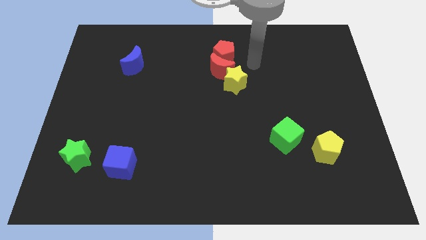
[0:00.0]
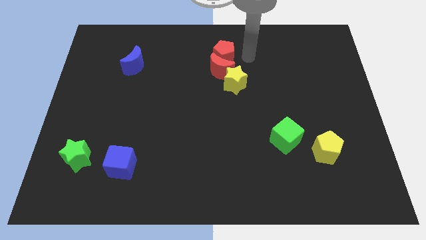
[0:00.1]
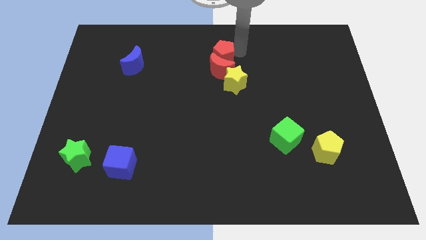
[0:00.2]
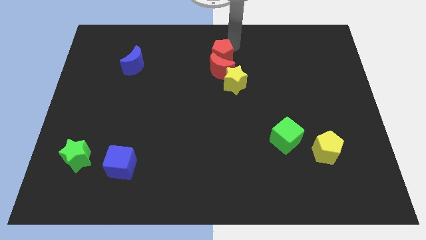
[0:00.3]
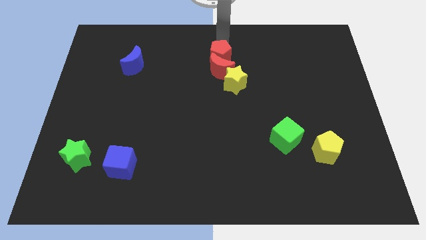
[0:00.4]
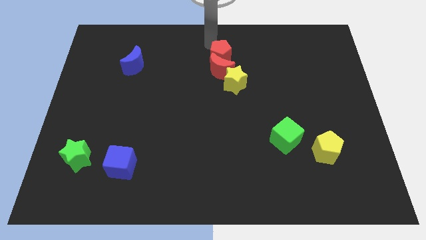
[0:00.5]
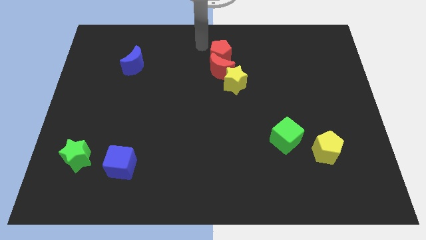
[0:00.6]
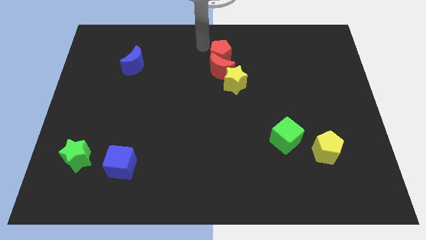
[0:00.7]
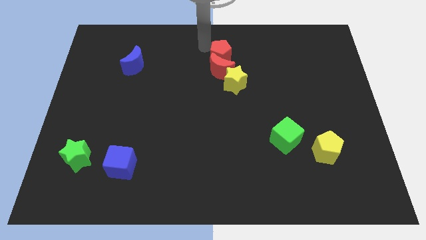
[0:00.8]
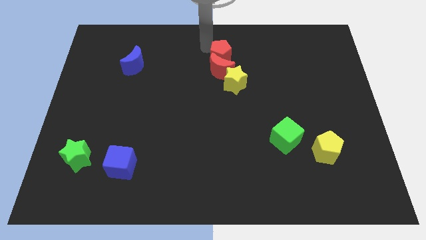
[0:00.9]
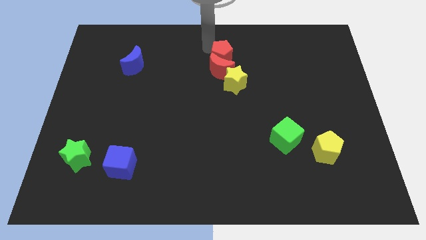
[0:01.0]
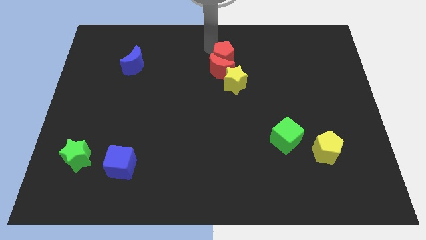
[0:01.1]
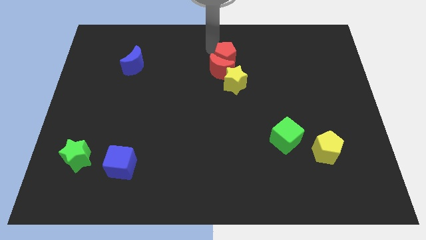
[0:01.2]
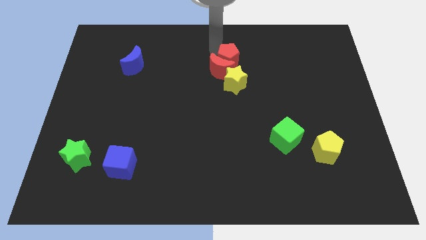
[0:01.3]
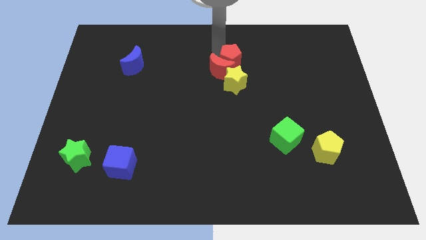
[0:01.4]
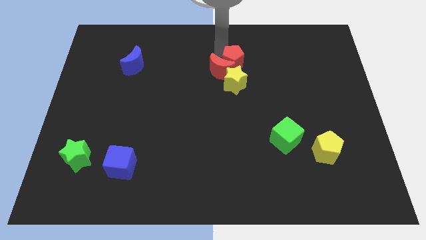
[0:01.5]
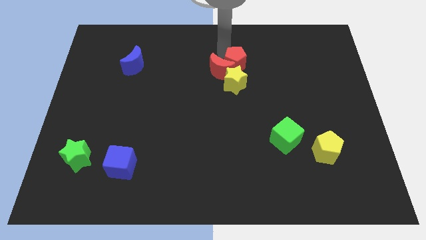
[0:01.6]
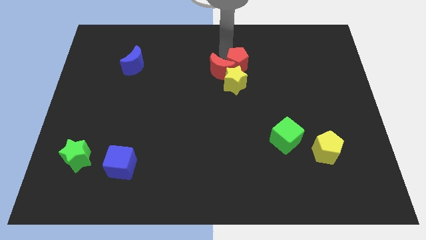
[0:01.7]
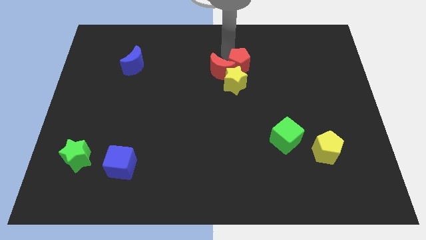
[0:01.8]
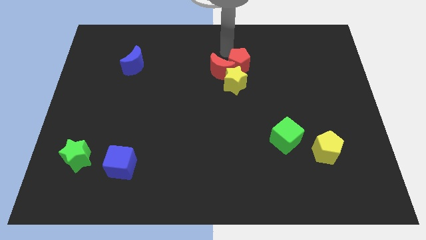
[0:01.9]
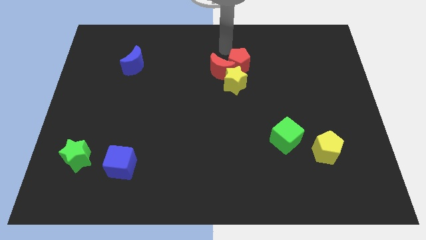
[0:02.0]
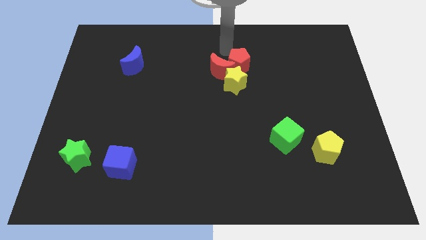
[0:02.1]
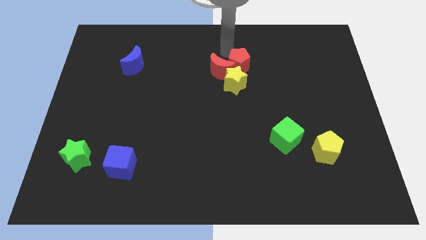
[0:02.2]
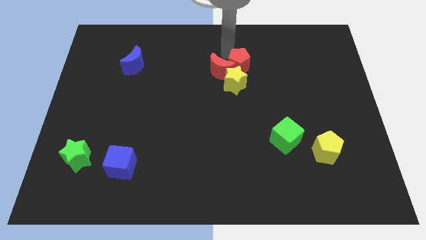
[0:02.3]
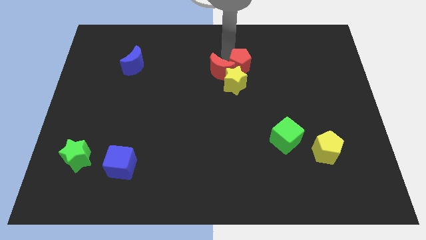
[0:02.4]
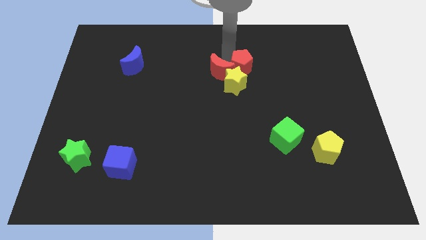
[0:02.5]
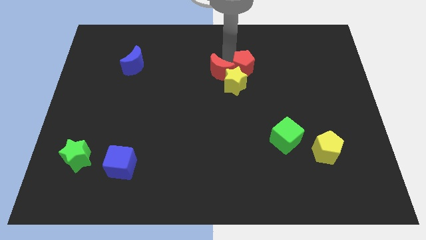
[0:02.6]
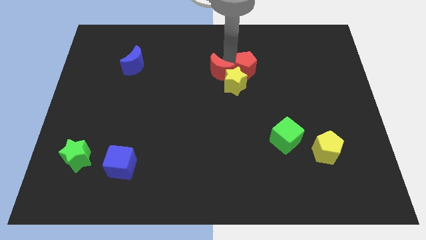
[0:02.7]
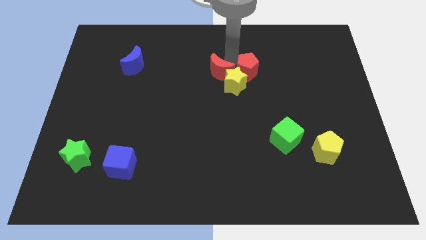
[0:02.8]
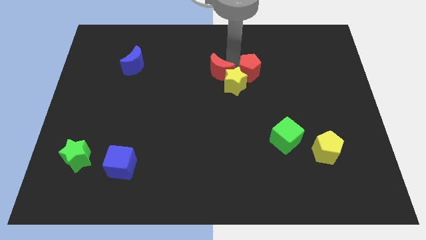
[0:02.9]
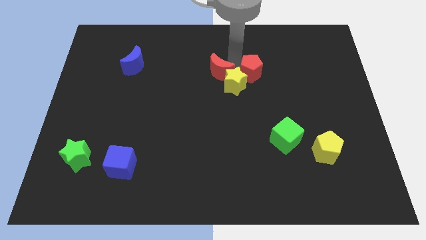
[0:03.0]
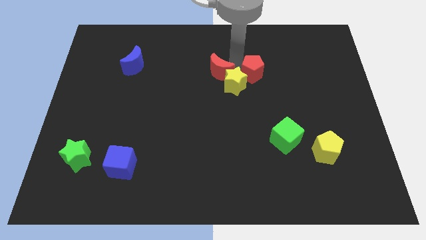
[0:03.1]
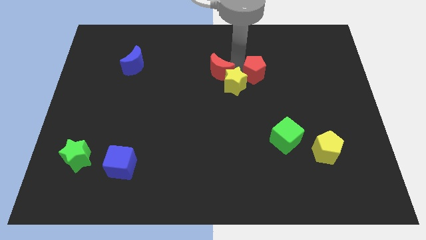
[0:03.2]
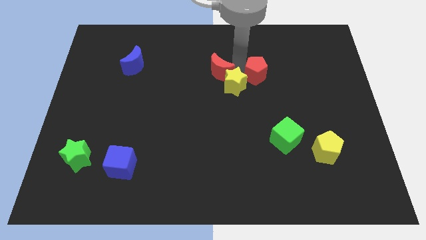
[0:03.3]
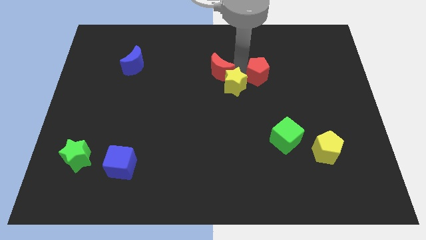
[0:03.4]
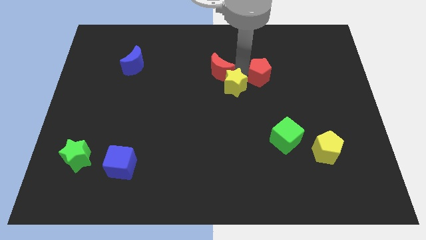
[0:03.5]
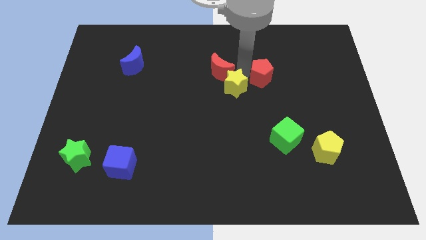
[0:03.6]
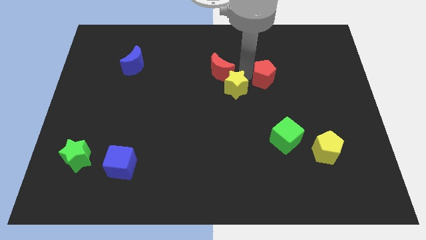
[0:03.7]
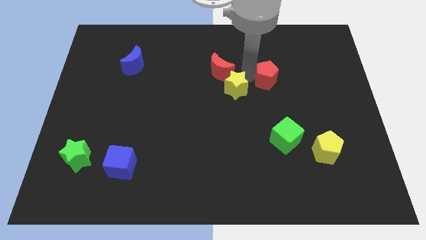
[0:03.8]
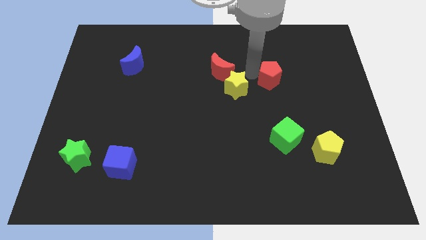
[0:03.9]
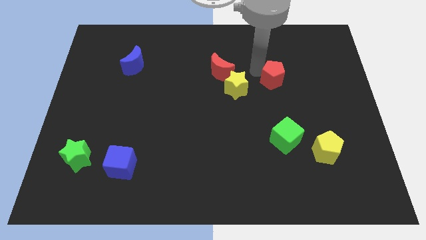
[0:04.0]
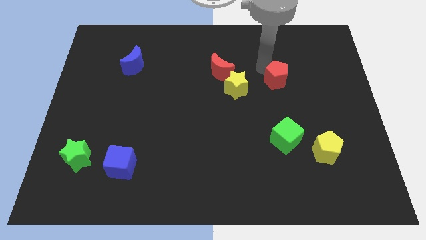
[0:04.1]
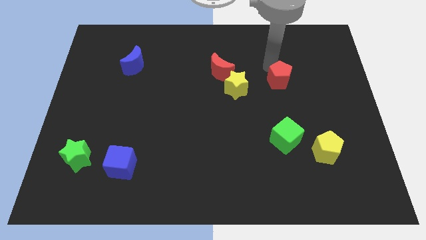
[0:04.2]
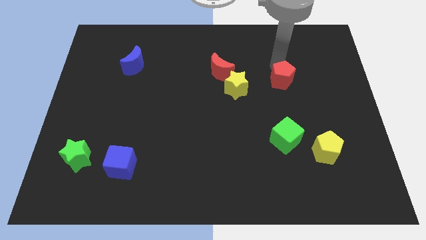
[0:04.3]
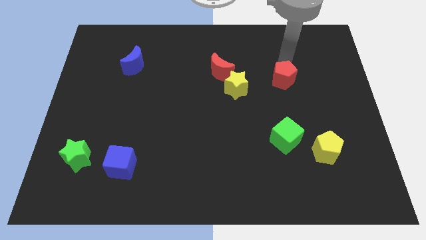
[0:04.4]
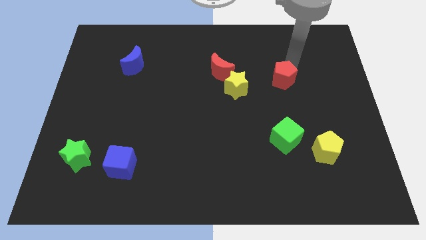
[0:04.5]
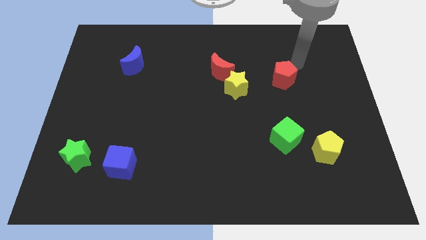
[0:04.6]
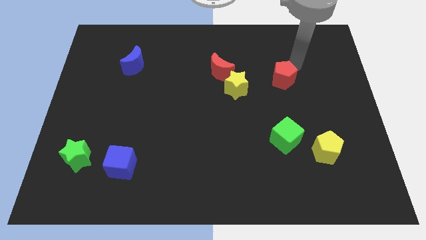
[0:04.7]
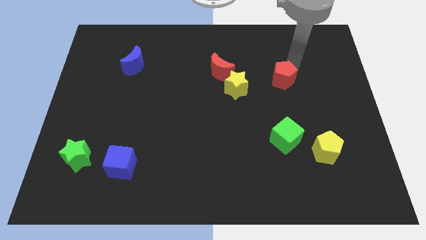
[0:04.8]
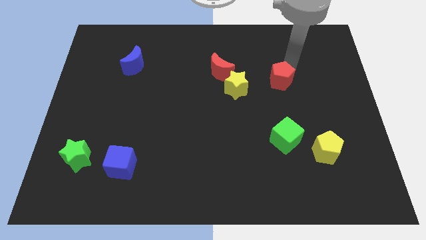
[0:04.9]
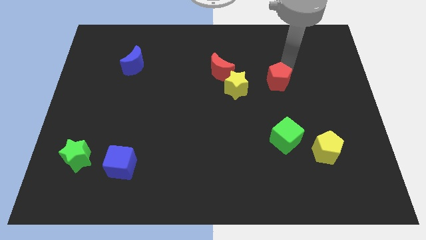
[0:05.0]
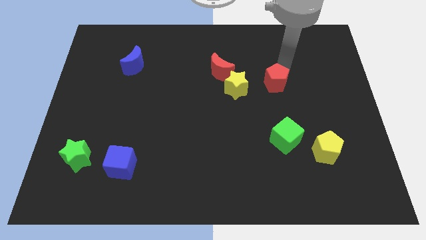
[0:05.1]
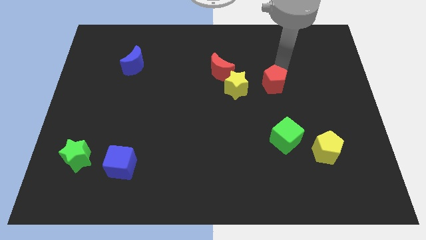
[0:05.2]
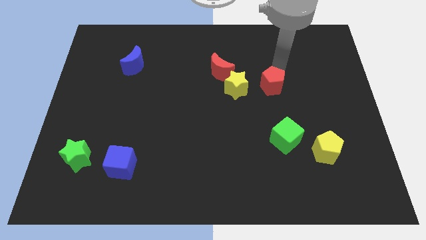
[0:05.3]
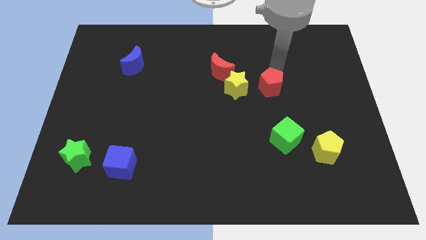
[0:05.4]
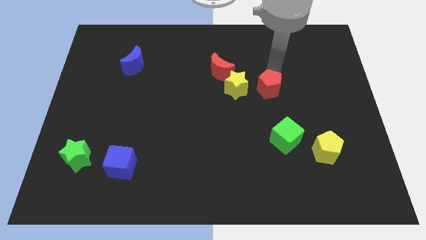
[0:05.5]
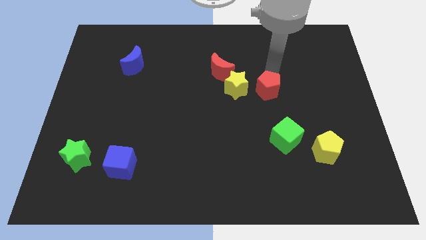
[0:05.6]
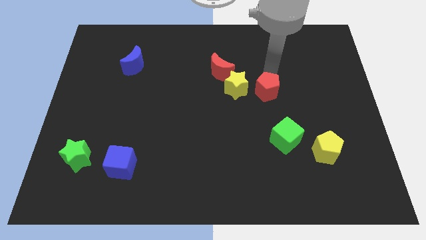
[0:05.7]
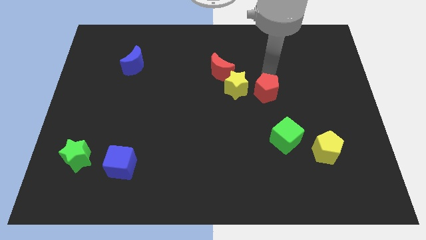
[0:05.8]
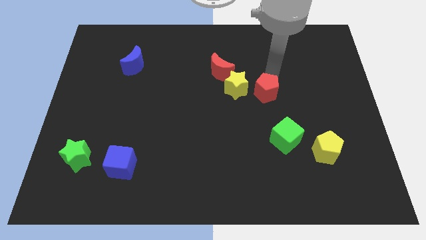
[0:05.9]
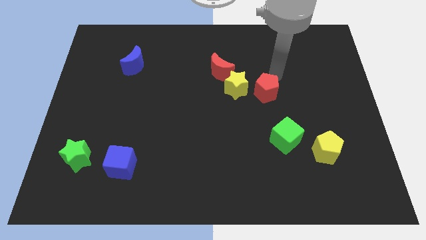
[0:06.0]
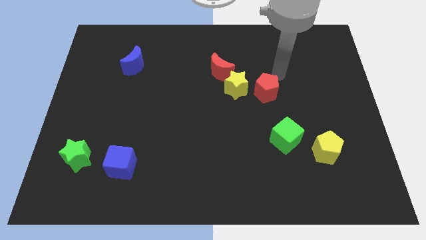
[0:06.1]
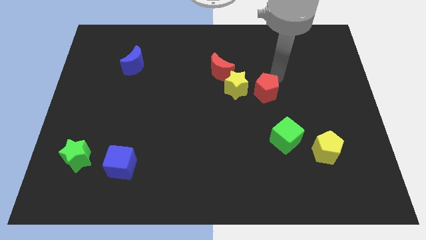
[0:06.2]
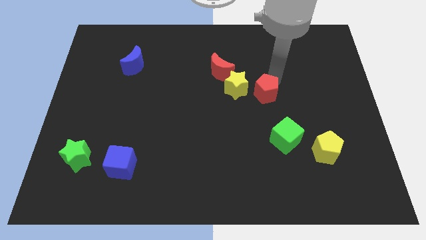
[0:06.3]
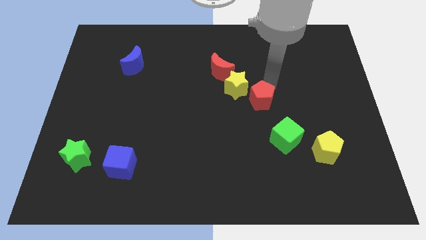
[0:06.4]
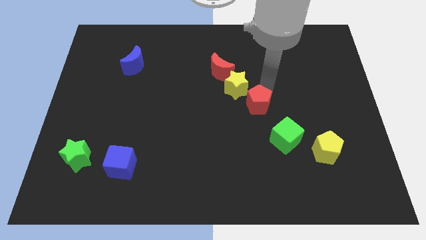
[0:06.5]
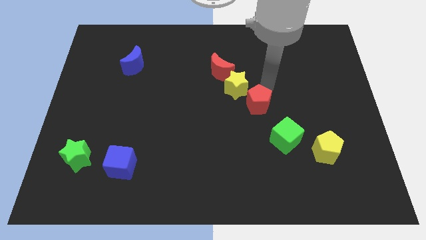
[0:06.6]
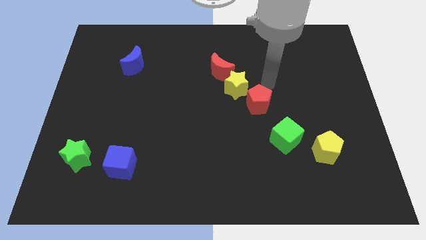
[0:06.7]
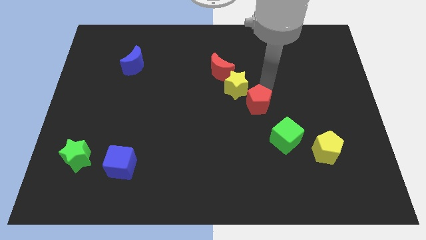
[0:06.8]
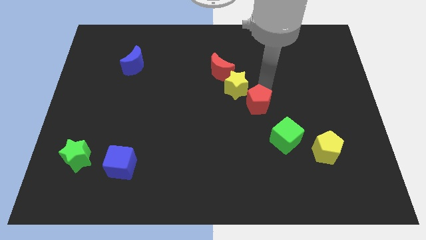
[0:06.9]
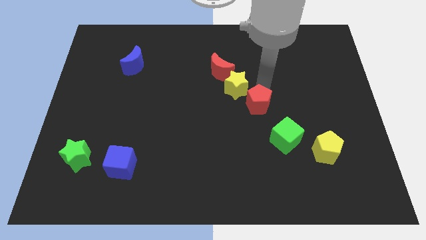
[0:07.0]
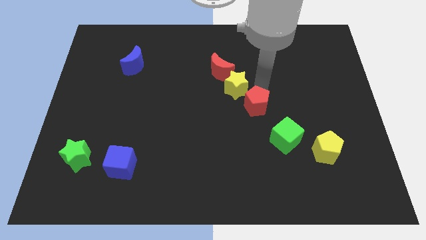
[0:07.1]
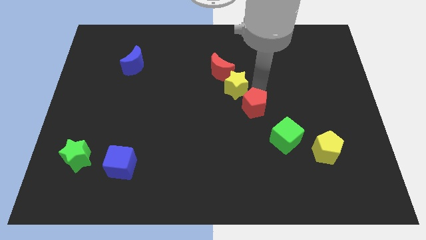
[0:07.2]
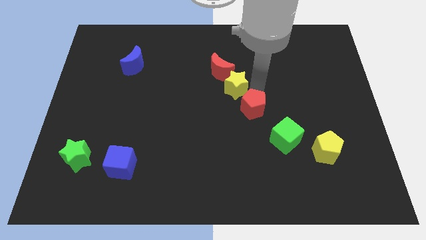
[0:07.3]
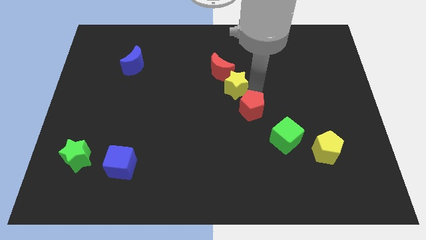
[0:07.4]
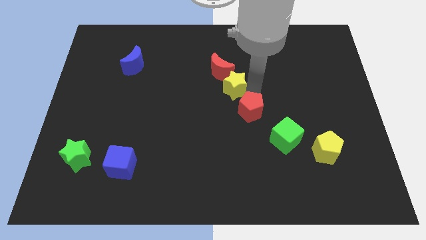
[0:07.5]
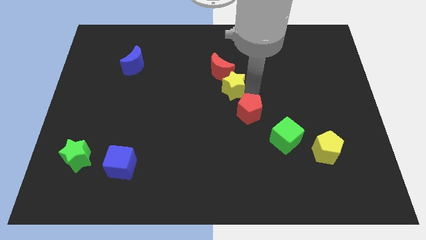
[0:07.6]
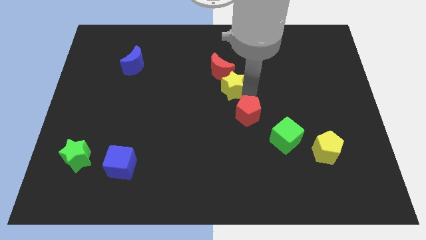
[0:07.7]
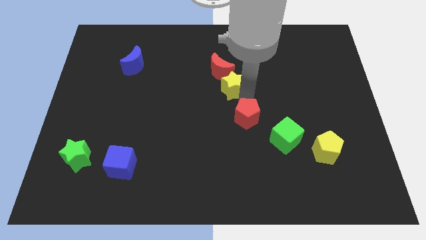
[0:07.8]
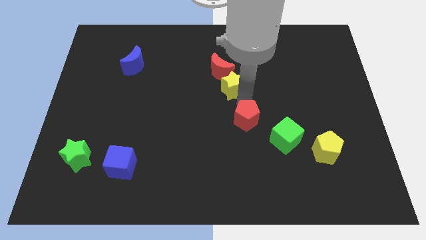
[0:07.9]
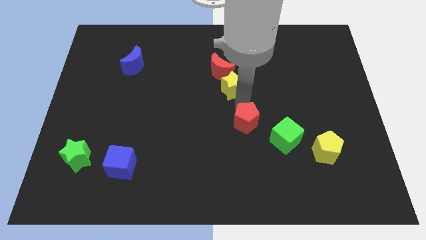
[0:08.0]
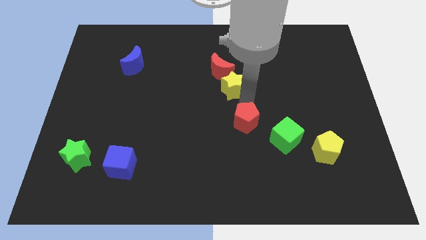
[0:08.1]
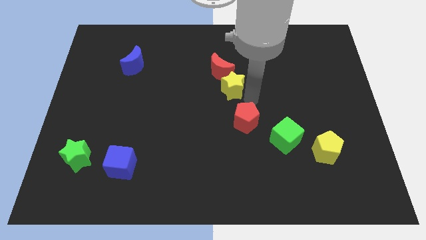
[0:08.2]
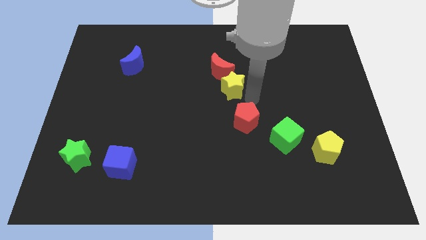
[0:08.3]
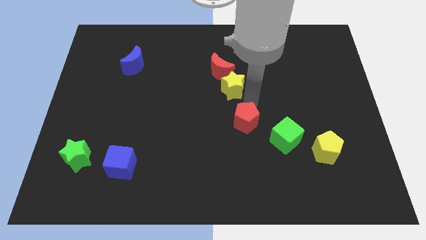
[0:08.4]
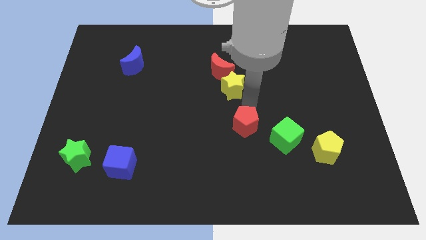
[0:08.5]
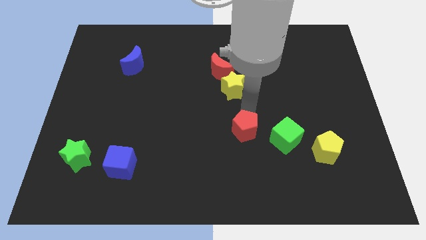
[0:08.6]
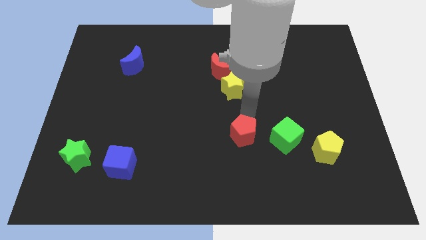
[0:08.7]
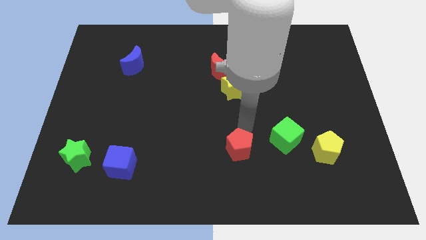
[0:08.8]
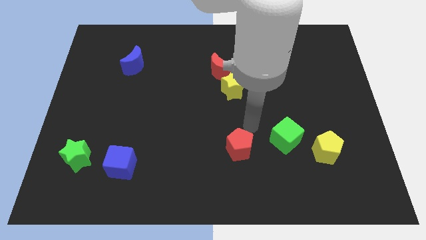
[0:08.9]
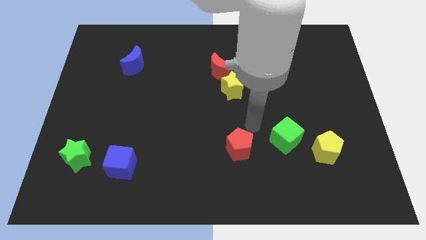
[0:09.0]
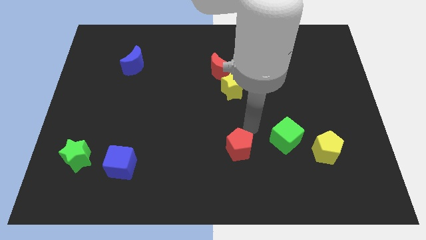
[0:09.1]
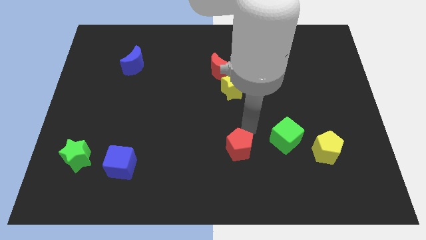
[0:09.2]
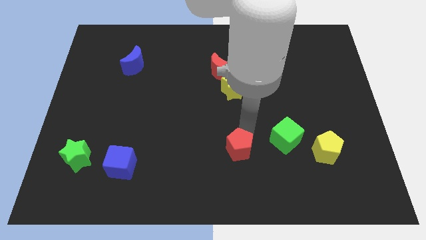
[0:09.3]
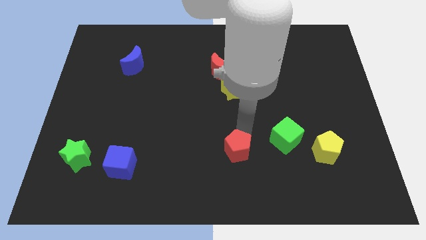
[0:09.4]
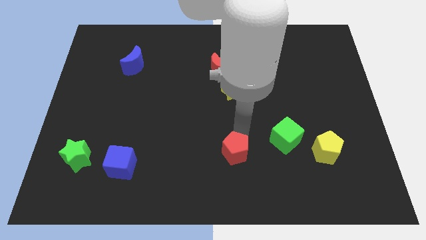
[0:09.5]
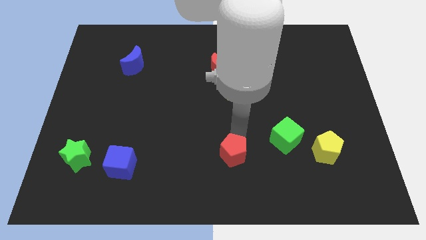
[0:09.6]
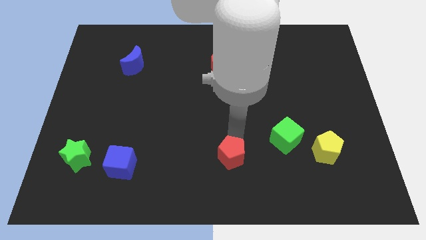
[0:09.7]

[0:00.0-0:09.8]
put the red pentagon to the bottom
